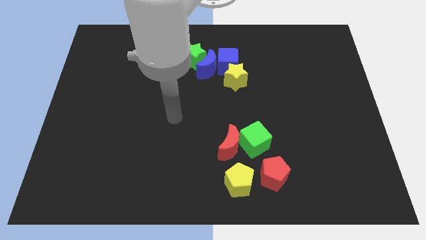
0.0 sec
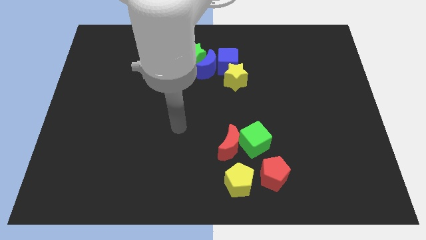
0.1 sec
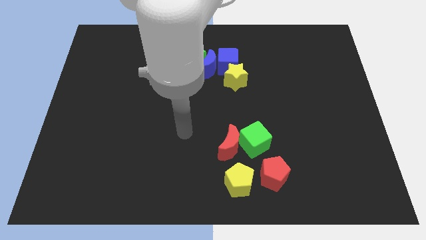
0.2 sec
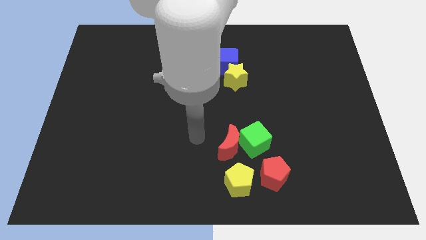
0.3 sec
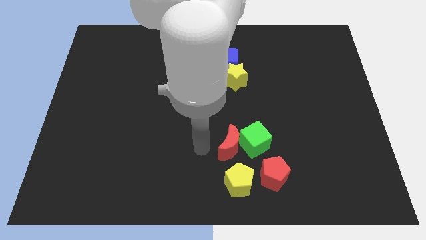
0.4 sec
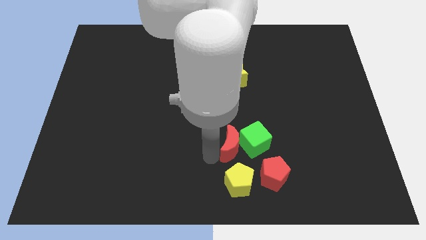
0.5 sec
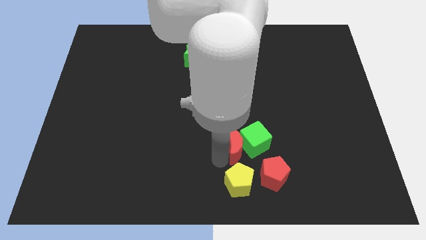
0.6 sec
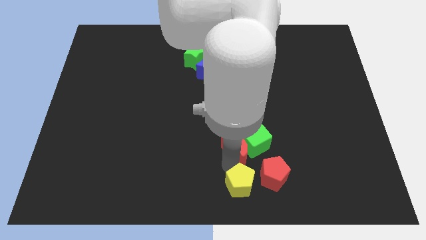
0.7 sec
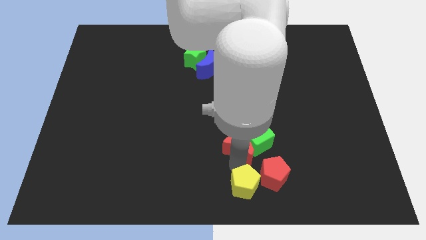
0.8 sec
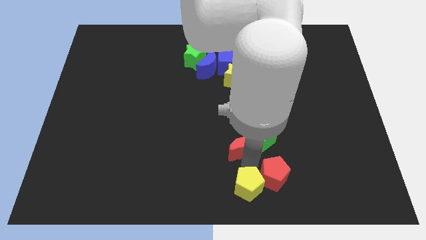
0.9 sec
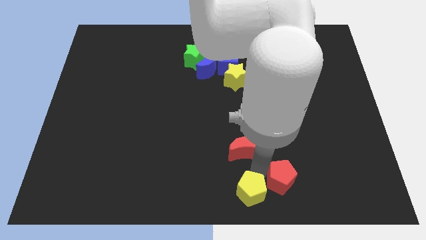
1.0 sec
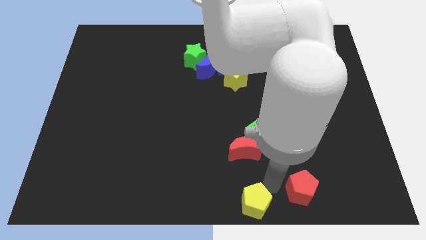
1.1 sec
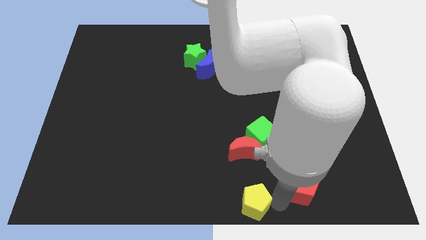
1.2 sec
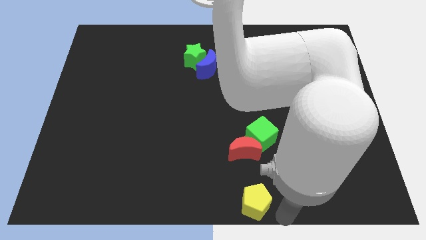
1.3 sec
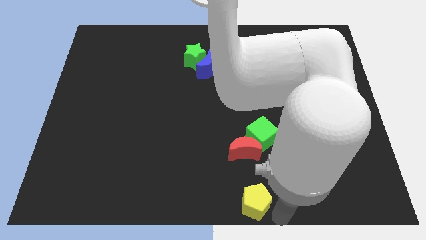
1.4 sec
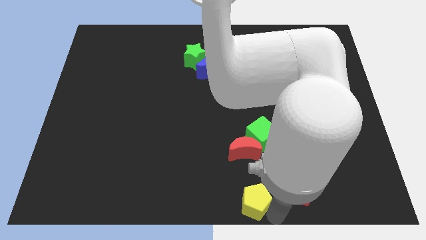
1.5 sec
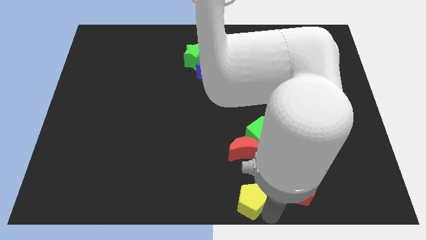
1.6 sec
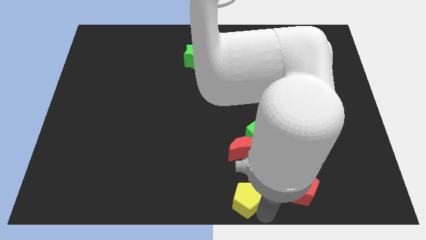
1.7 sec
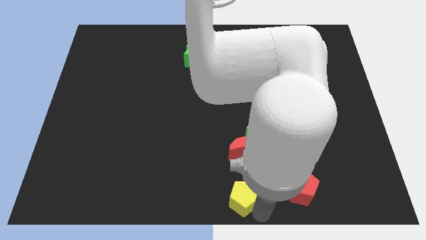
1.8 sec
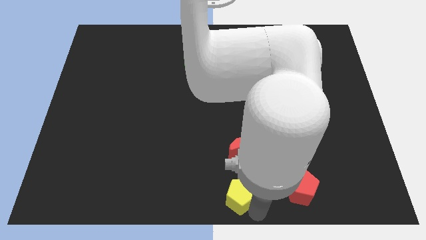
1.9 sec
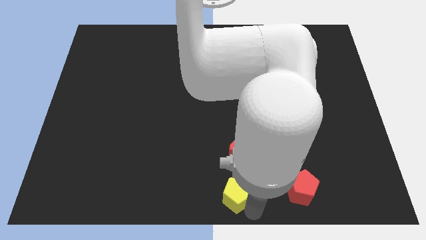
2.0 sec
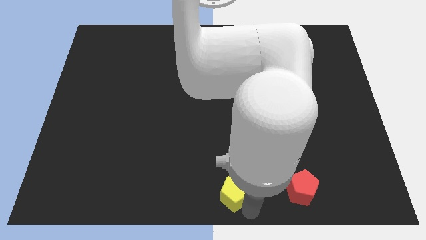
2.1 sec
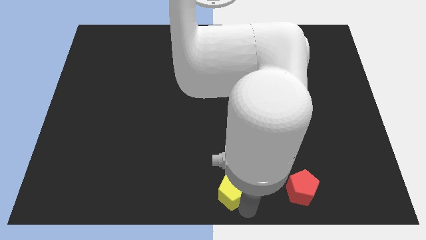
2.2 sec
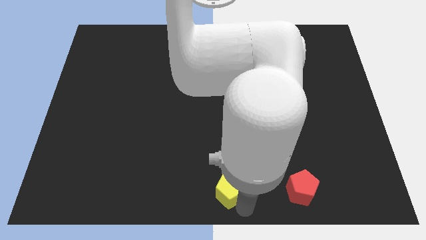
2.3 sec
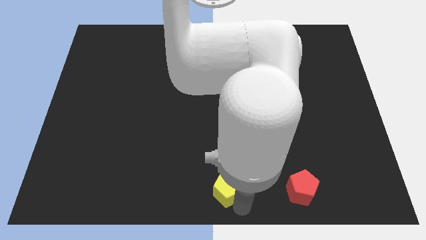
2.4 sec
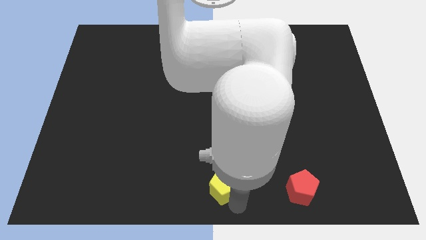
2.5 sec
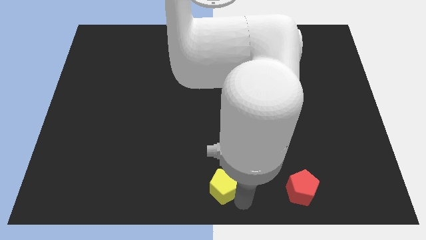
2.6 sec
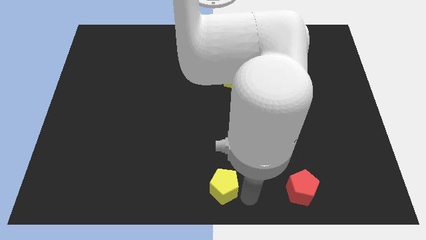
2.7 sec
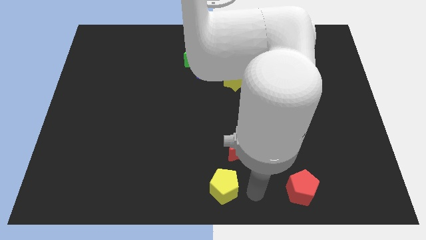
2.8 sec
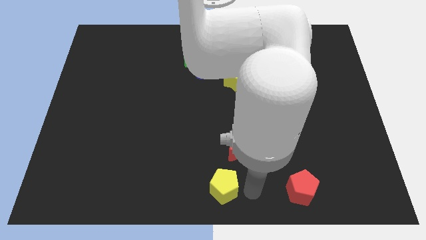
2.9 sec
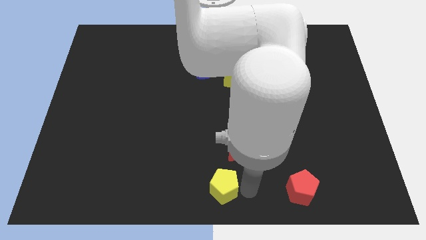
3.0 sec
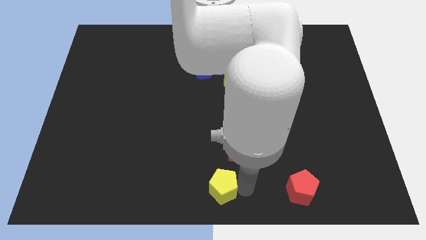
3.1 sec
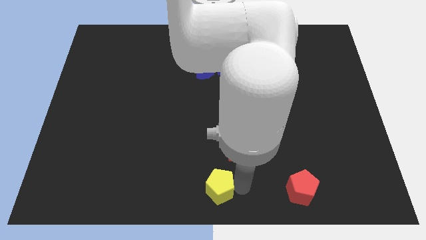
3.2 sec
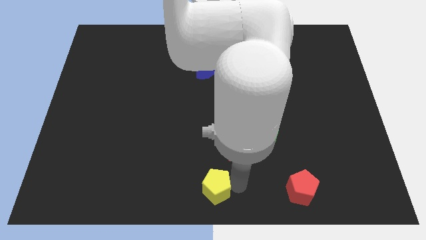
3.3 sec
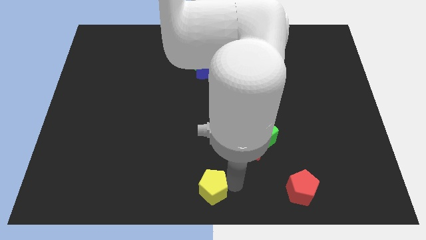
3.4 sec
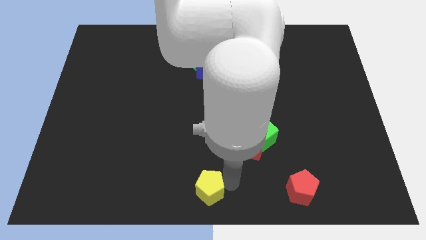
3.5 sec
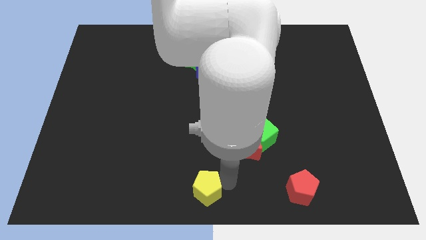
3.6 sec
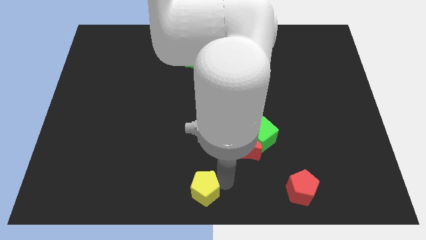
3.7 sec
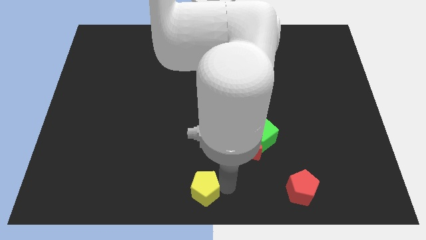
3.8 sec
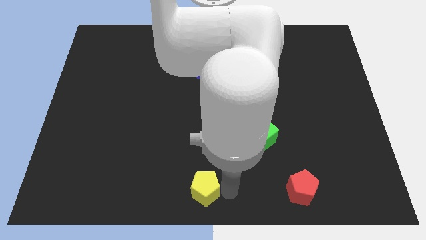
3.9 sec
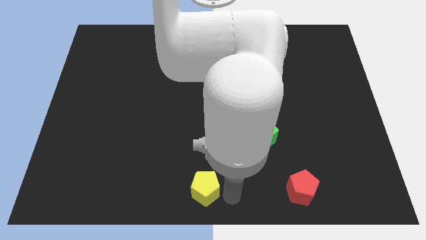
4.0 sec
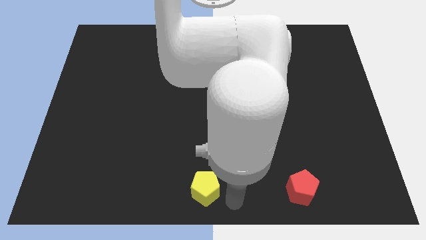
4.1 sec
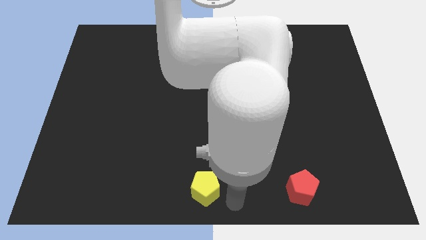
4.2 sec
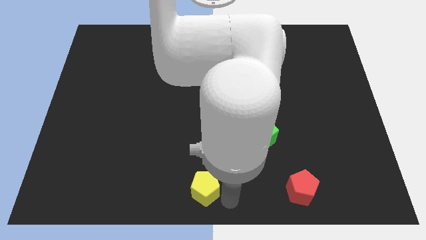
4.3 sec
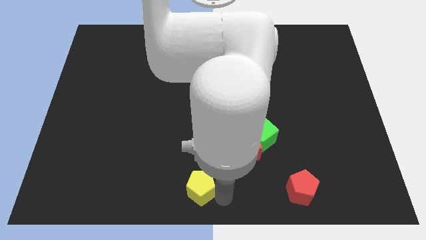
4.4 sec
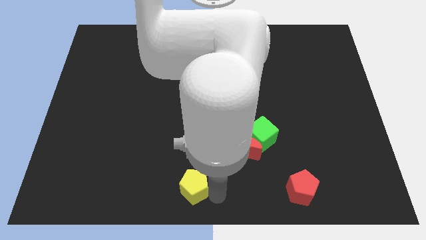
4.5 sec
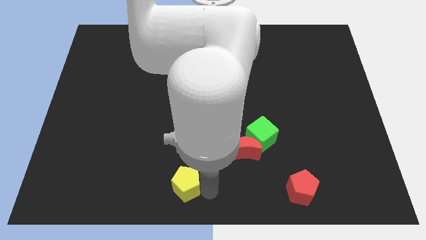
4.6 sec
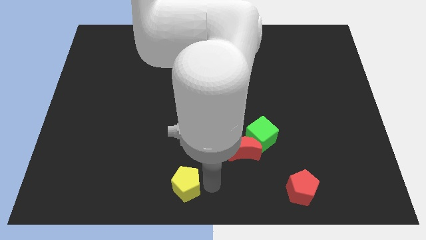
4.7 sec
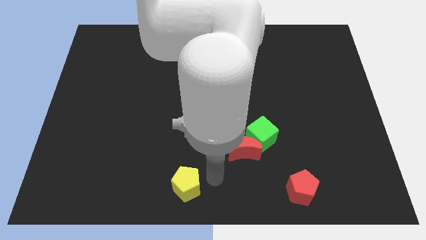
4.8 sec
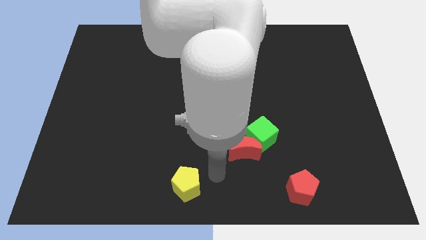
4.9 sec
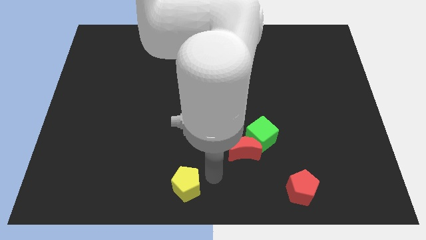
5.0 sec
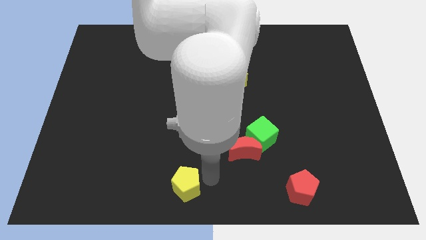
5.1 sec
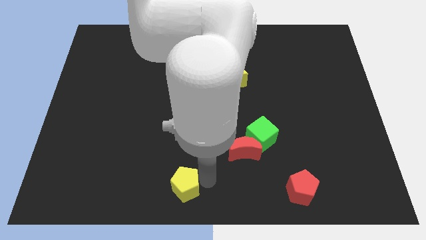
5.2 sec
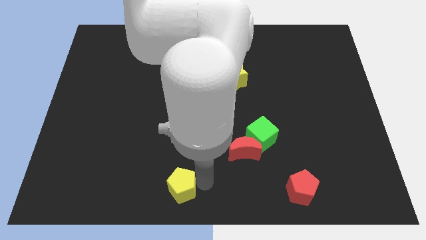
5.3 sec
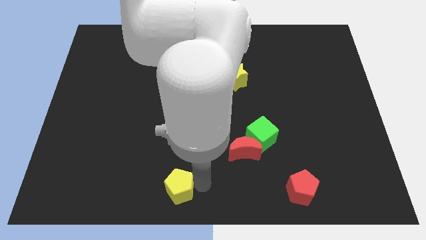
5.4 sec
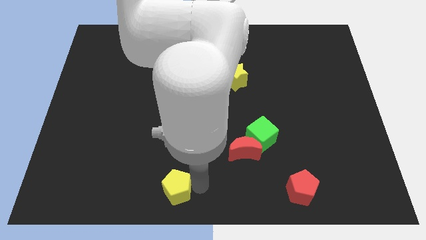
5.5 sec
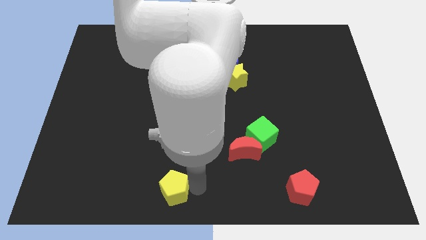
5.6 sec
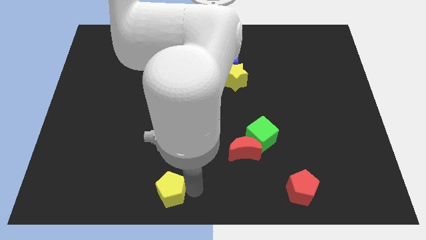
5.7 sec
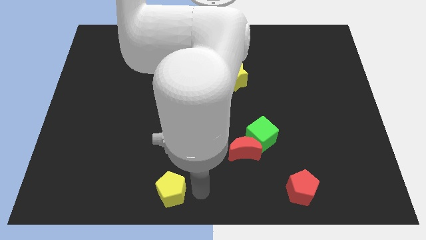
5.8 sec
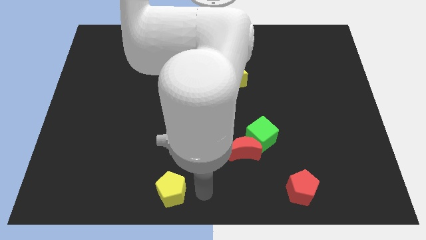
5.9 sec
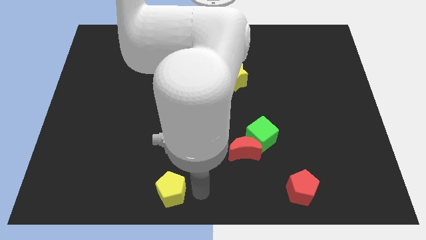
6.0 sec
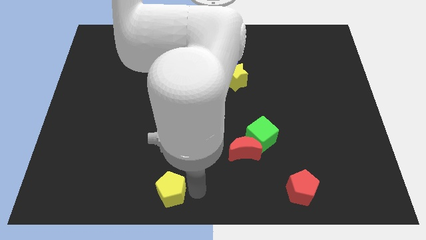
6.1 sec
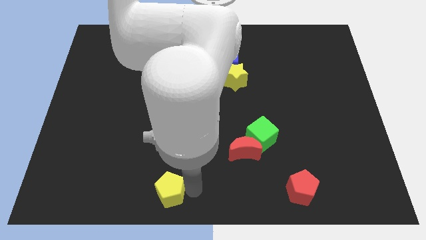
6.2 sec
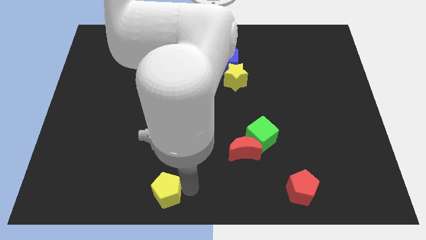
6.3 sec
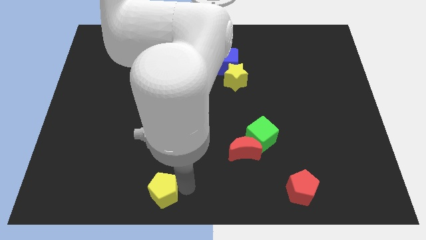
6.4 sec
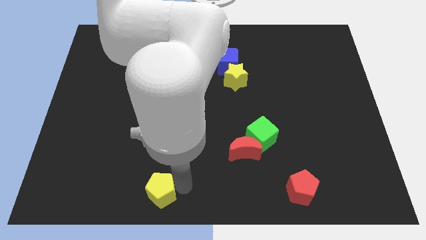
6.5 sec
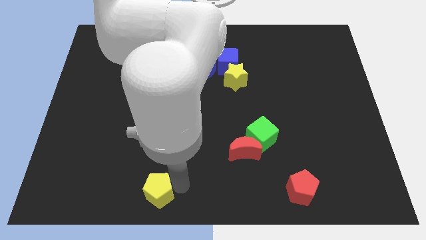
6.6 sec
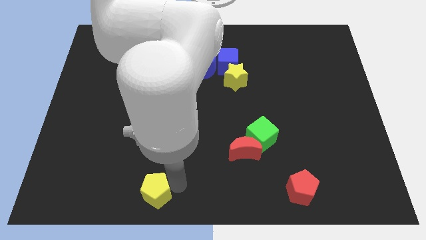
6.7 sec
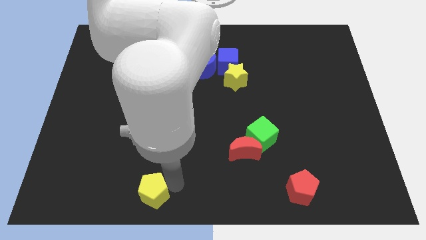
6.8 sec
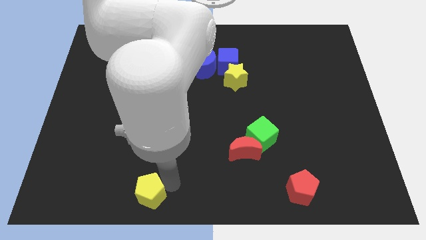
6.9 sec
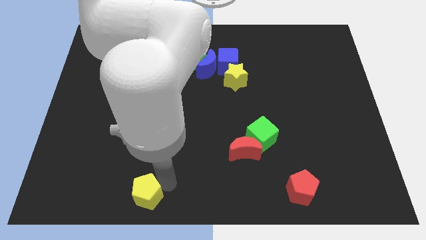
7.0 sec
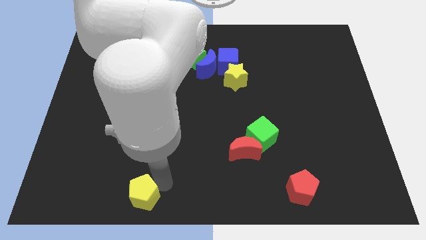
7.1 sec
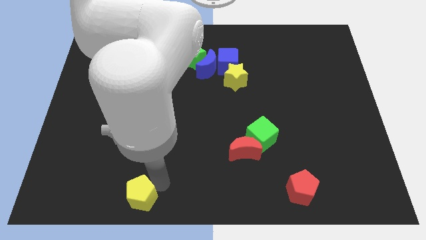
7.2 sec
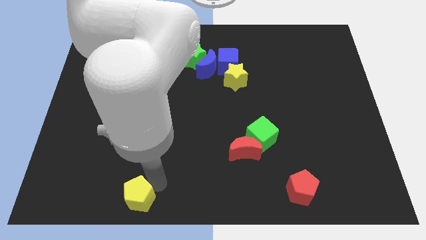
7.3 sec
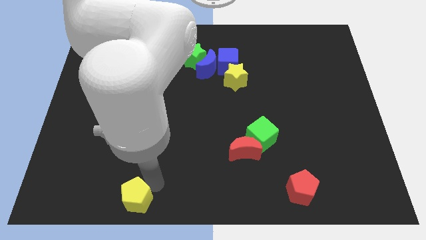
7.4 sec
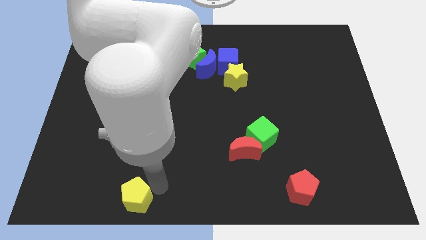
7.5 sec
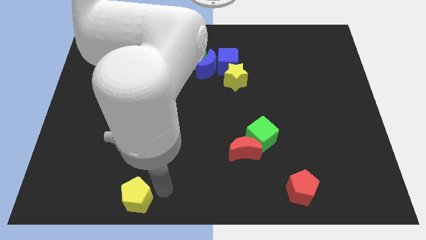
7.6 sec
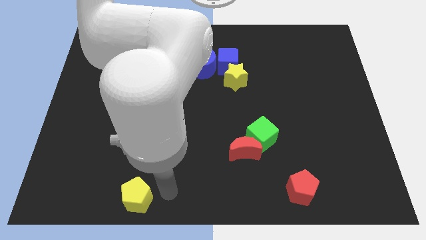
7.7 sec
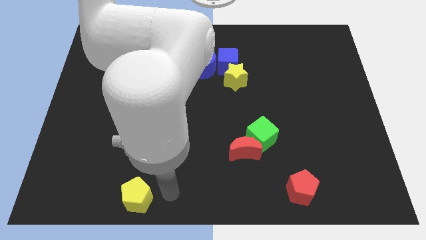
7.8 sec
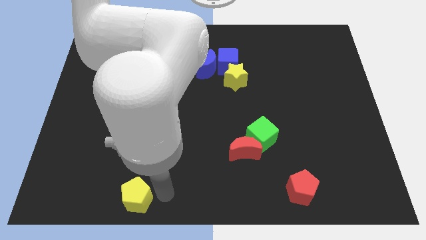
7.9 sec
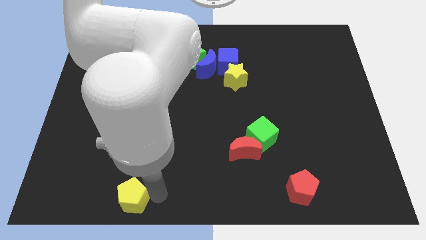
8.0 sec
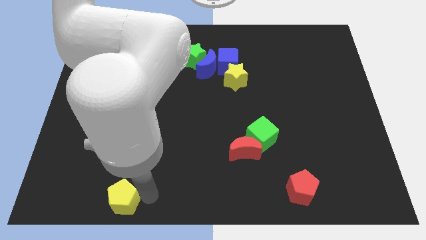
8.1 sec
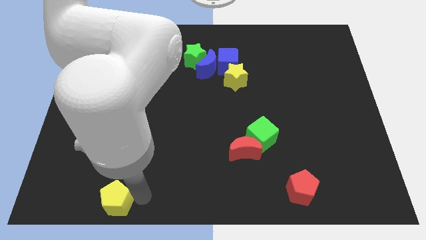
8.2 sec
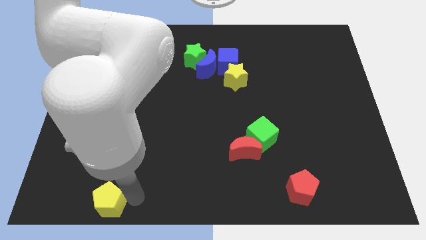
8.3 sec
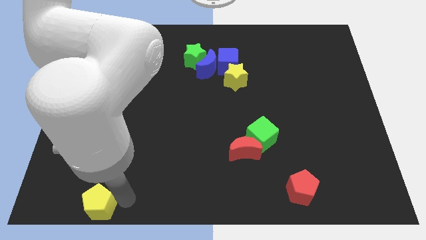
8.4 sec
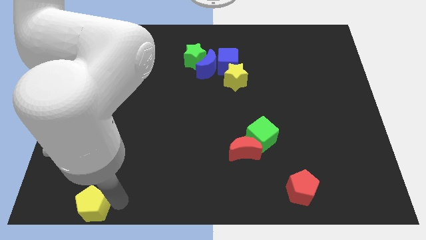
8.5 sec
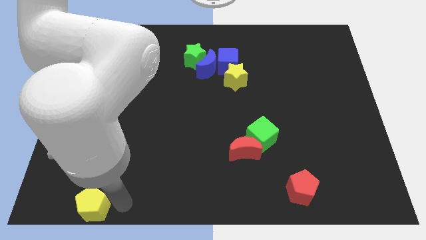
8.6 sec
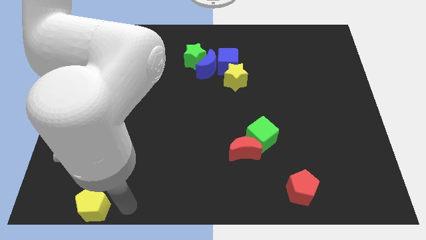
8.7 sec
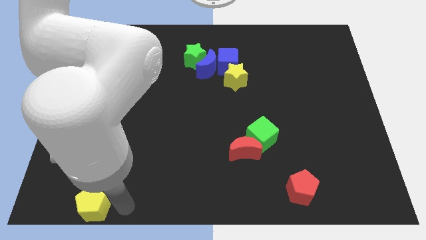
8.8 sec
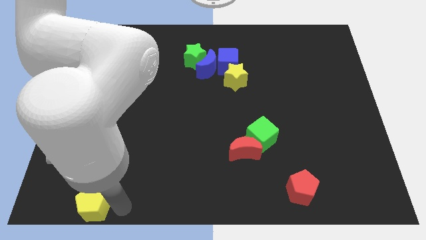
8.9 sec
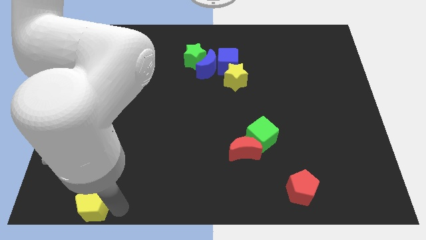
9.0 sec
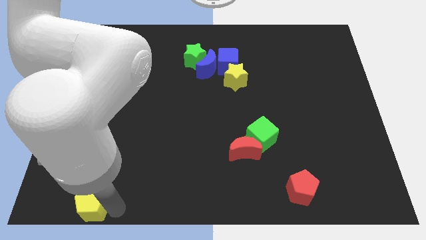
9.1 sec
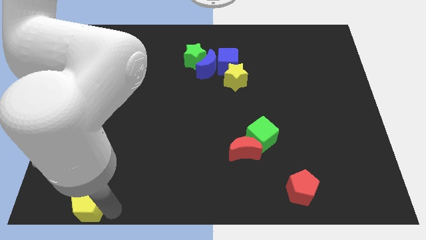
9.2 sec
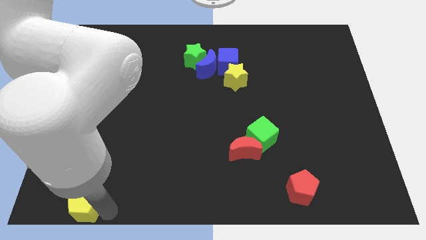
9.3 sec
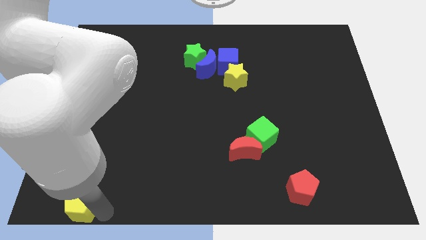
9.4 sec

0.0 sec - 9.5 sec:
put the yellow pentagon to the lower left corner
